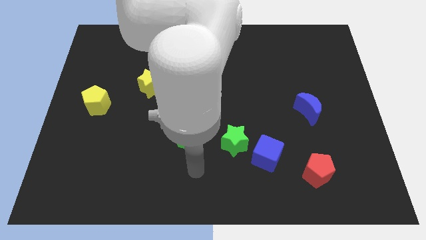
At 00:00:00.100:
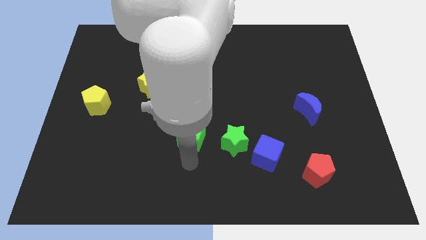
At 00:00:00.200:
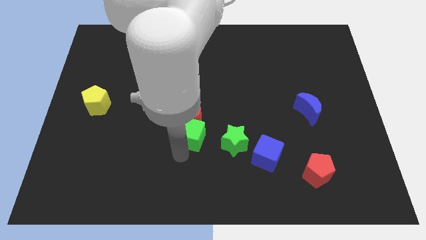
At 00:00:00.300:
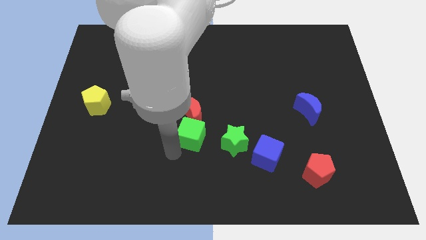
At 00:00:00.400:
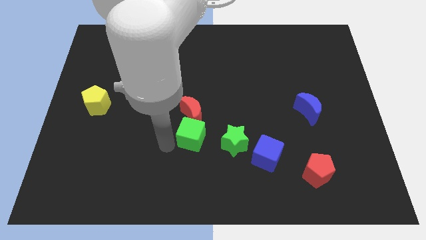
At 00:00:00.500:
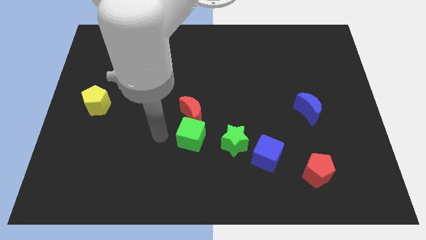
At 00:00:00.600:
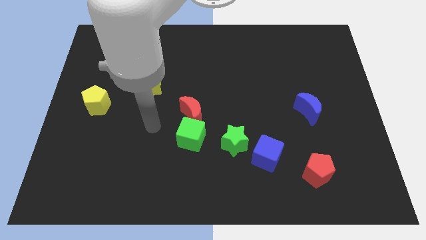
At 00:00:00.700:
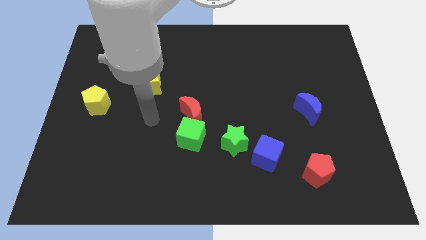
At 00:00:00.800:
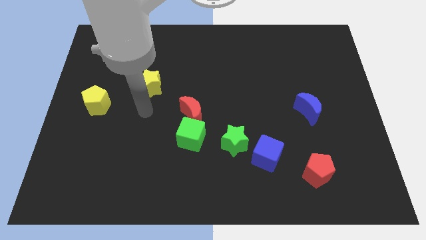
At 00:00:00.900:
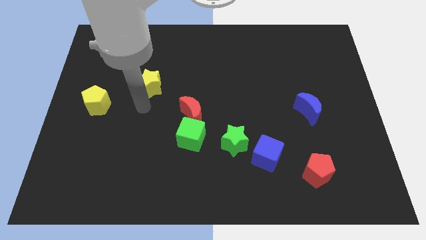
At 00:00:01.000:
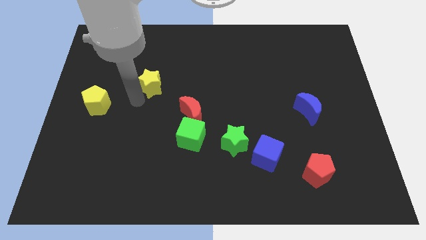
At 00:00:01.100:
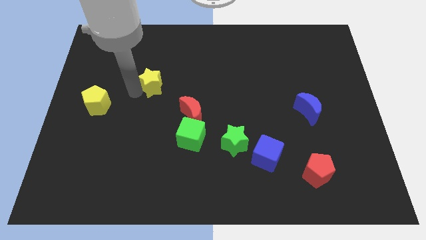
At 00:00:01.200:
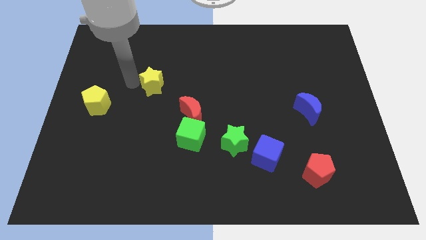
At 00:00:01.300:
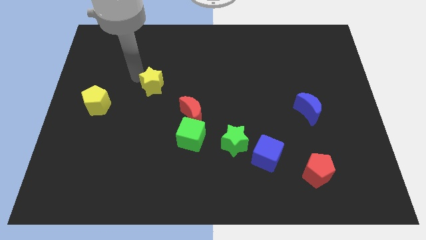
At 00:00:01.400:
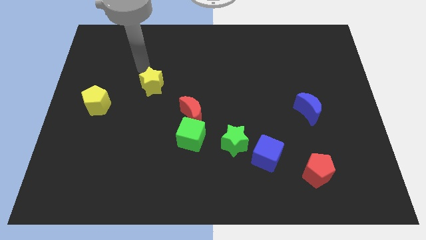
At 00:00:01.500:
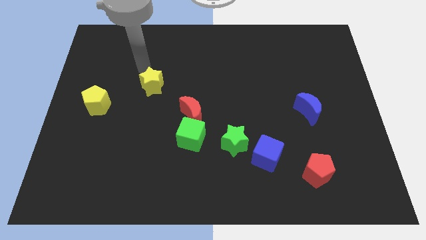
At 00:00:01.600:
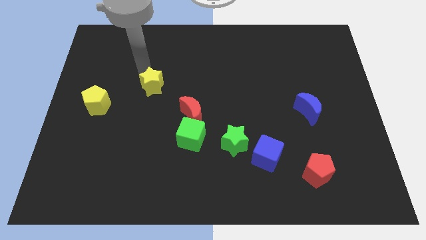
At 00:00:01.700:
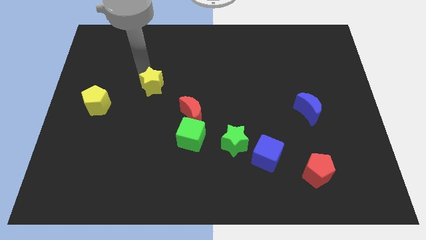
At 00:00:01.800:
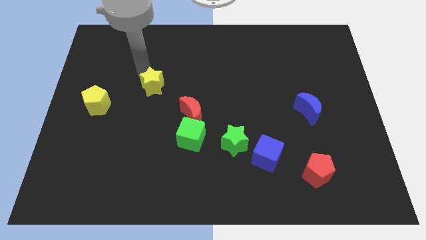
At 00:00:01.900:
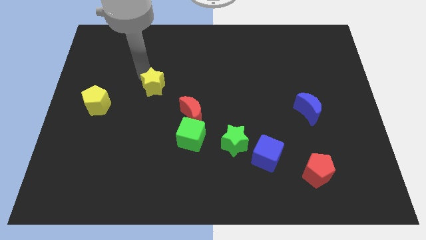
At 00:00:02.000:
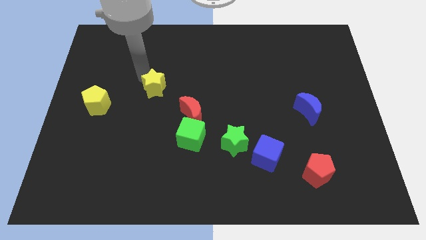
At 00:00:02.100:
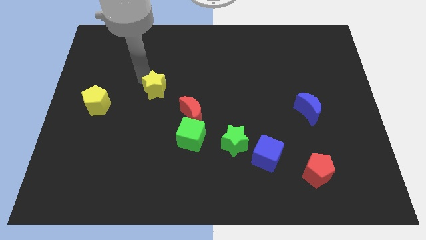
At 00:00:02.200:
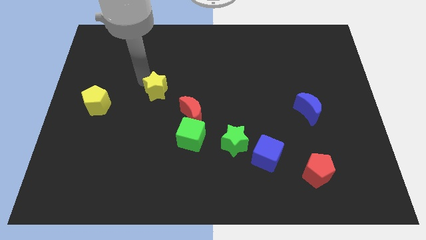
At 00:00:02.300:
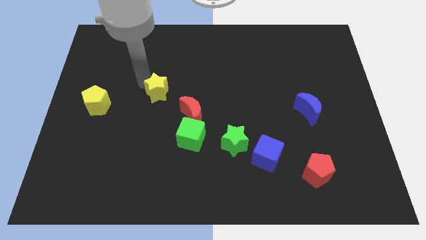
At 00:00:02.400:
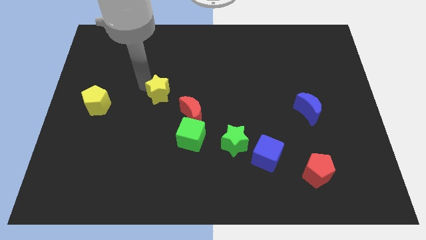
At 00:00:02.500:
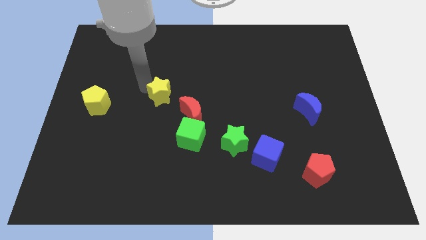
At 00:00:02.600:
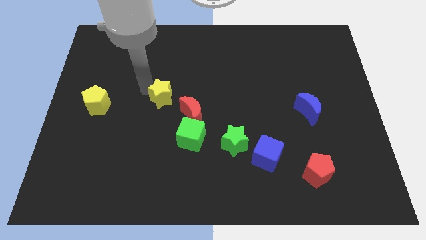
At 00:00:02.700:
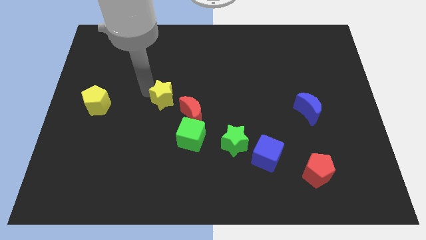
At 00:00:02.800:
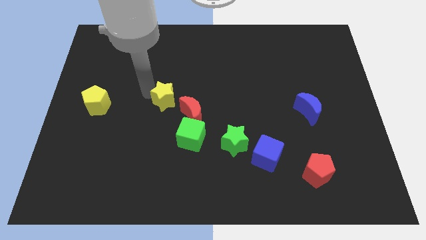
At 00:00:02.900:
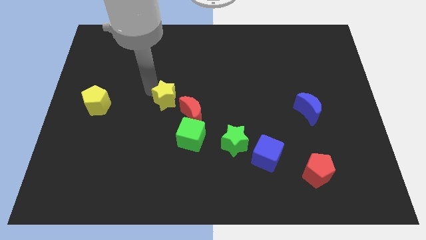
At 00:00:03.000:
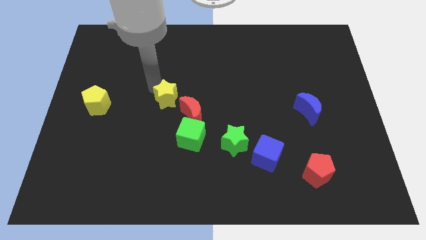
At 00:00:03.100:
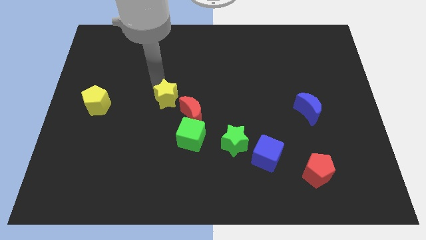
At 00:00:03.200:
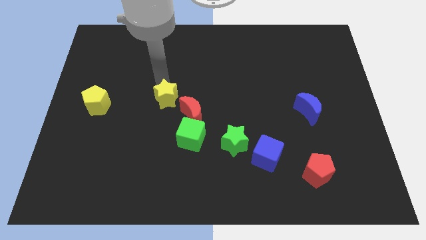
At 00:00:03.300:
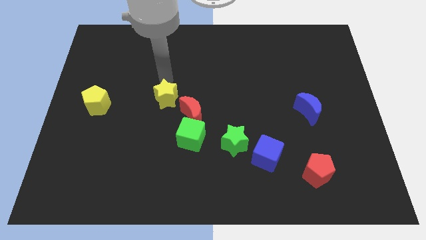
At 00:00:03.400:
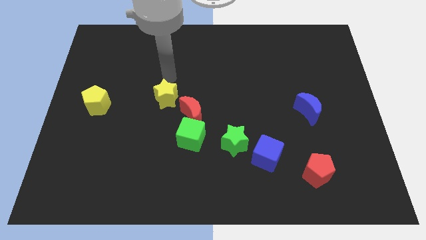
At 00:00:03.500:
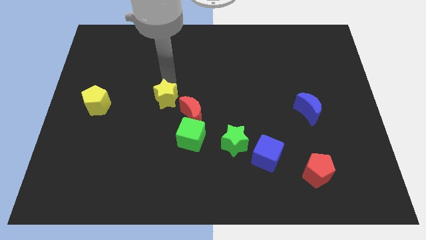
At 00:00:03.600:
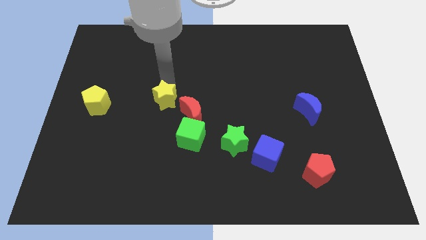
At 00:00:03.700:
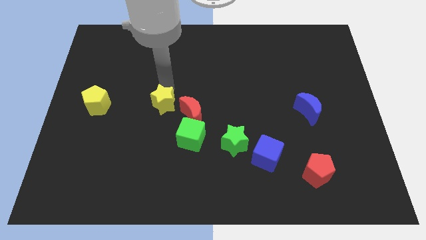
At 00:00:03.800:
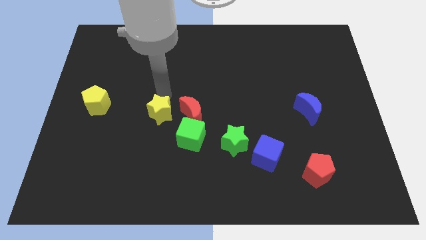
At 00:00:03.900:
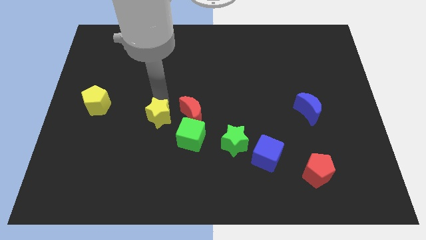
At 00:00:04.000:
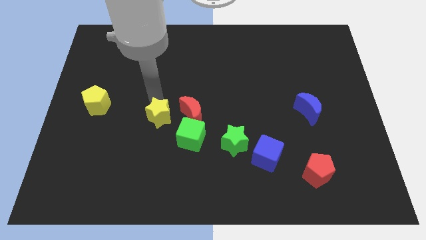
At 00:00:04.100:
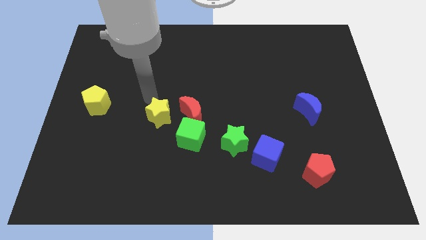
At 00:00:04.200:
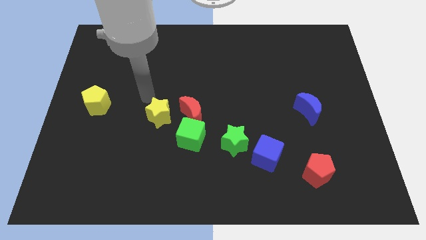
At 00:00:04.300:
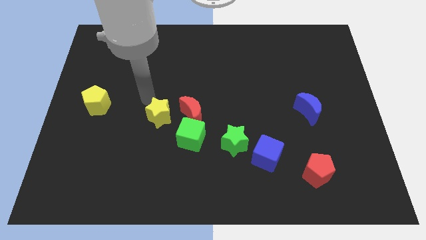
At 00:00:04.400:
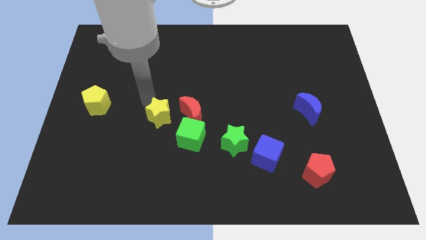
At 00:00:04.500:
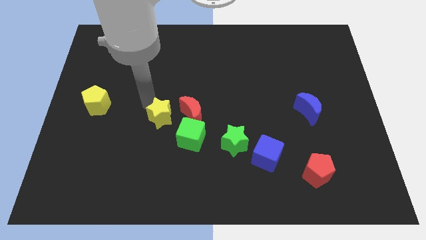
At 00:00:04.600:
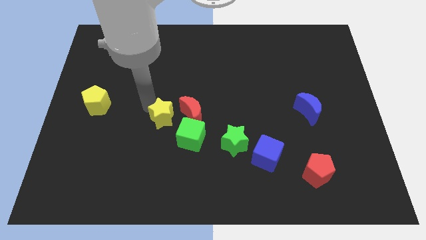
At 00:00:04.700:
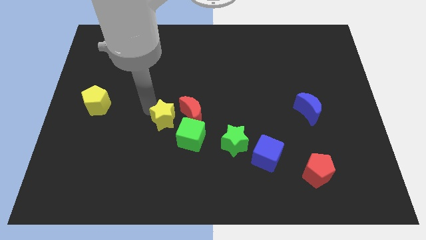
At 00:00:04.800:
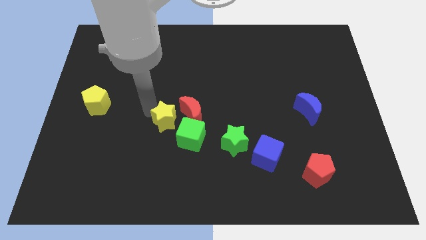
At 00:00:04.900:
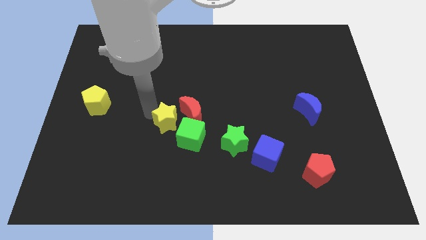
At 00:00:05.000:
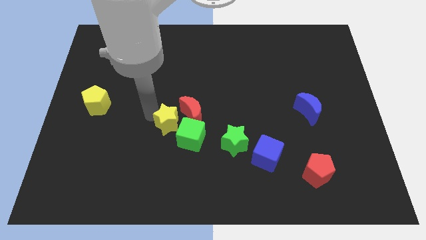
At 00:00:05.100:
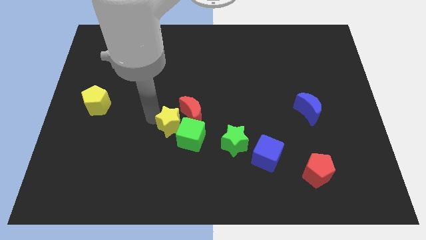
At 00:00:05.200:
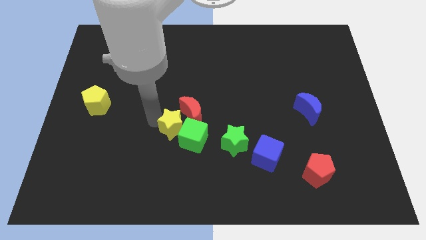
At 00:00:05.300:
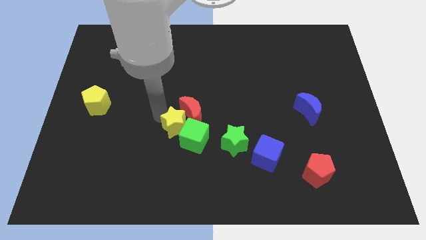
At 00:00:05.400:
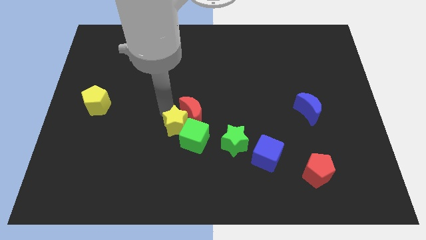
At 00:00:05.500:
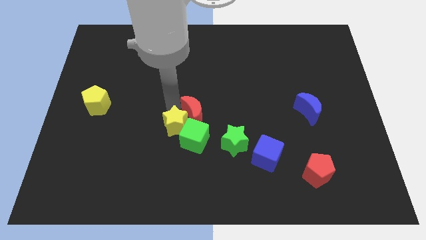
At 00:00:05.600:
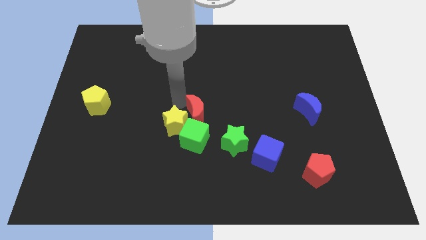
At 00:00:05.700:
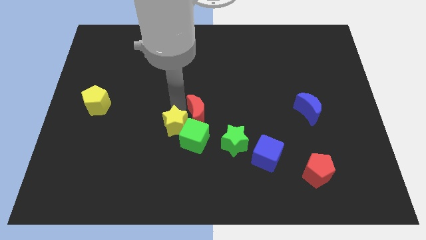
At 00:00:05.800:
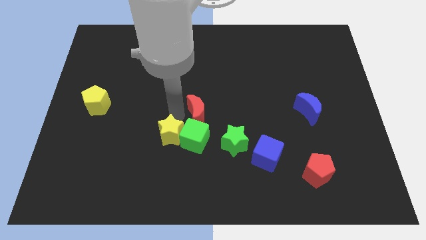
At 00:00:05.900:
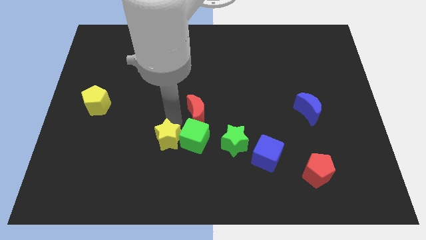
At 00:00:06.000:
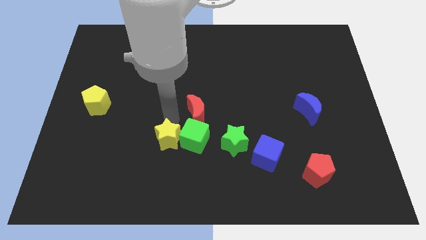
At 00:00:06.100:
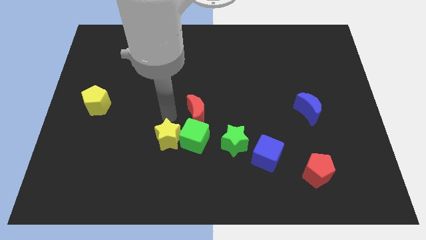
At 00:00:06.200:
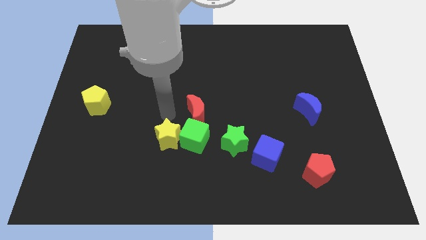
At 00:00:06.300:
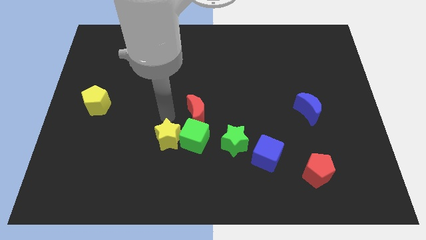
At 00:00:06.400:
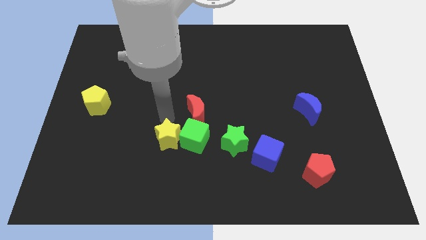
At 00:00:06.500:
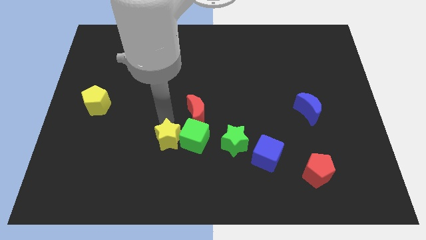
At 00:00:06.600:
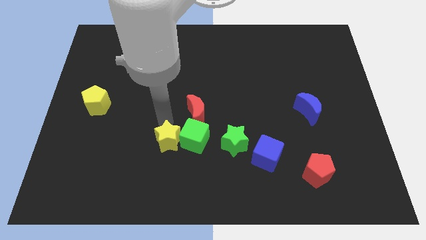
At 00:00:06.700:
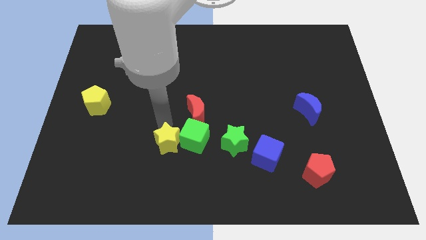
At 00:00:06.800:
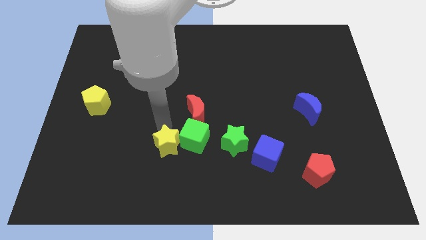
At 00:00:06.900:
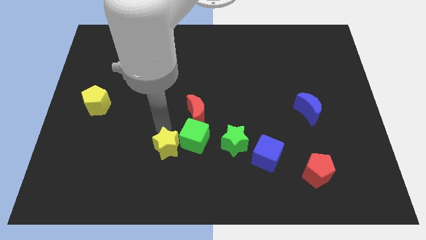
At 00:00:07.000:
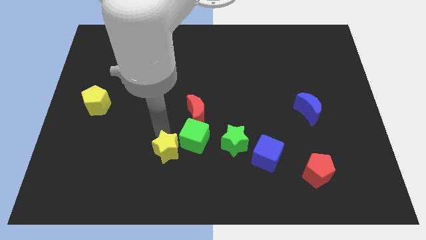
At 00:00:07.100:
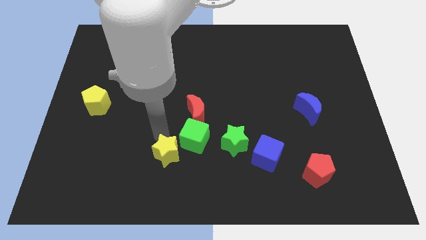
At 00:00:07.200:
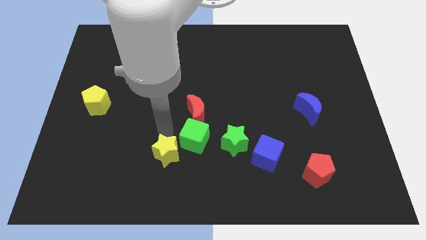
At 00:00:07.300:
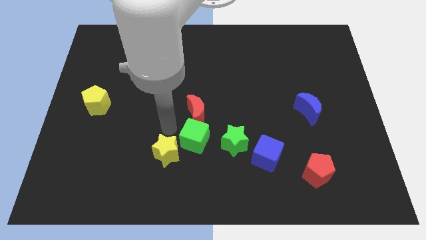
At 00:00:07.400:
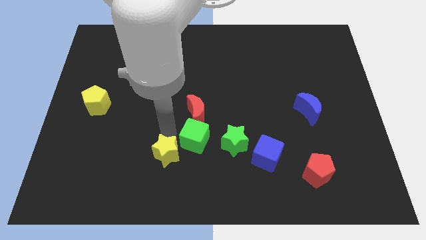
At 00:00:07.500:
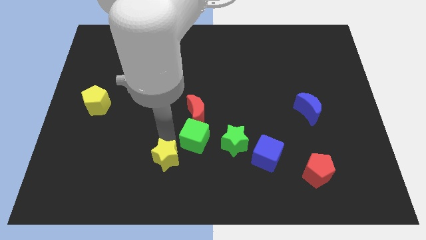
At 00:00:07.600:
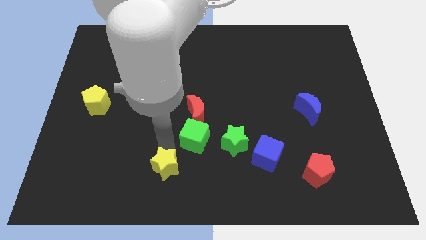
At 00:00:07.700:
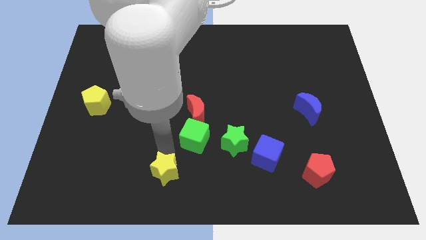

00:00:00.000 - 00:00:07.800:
move the yellow star to the bottom
